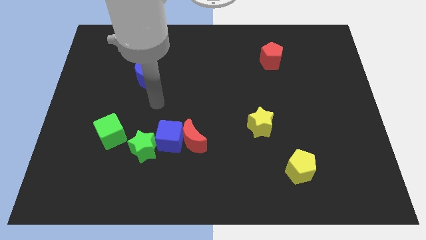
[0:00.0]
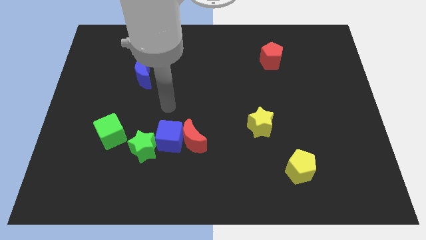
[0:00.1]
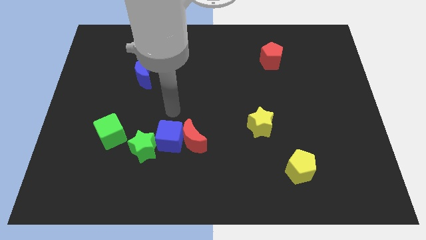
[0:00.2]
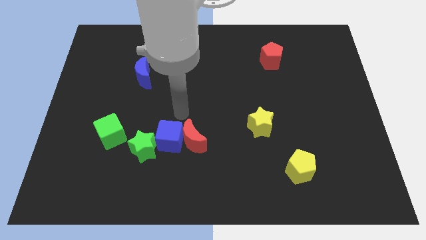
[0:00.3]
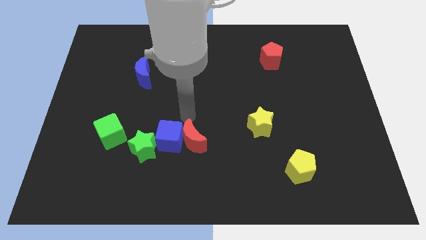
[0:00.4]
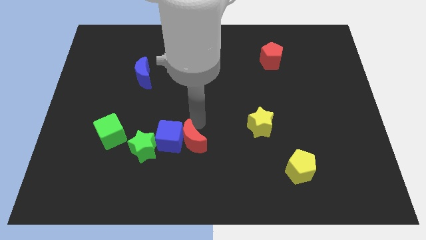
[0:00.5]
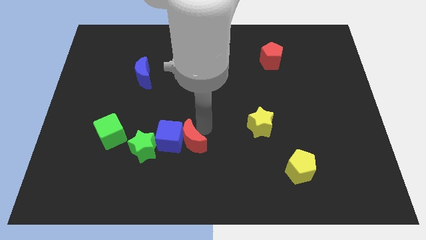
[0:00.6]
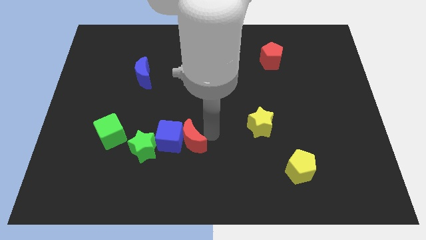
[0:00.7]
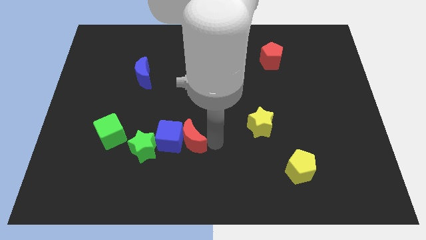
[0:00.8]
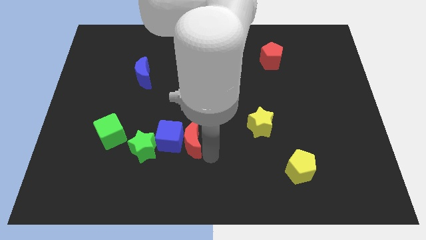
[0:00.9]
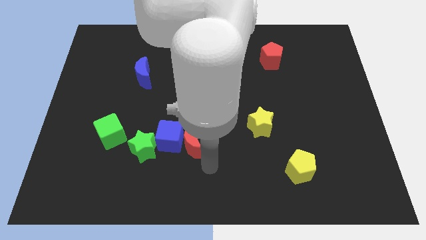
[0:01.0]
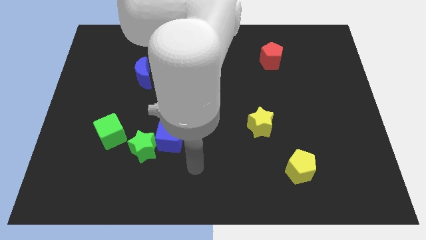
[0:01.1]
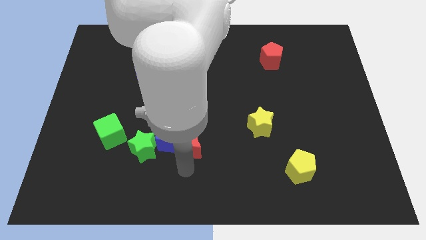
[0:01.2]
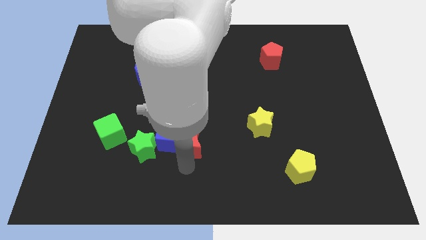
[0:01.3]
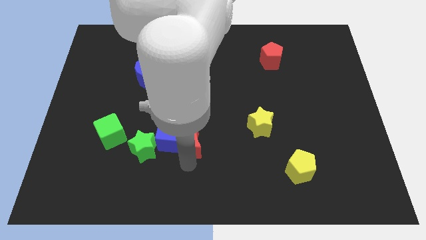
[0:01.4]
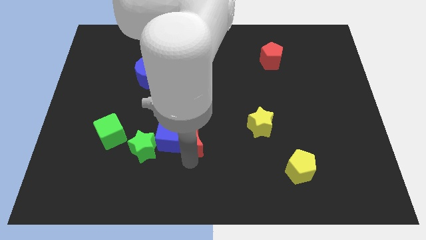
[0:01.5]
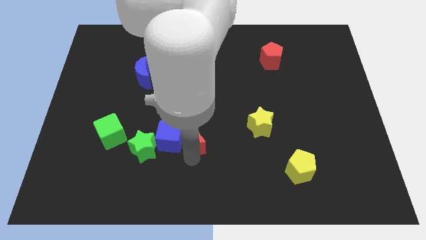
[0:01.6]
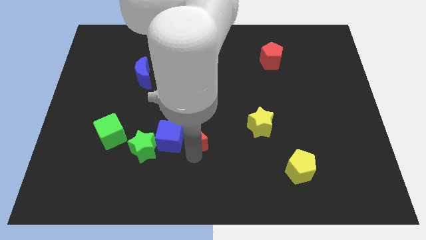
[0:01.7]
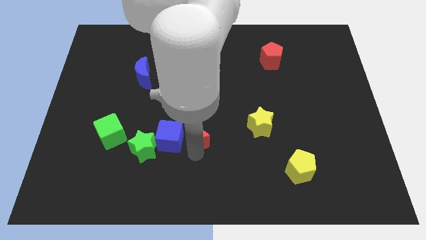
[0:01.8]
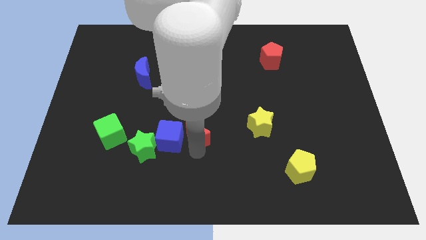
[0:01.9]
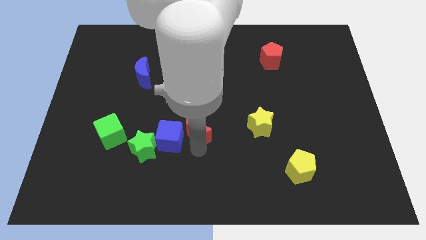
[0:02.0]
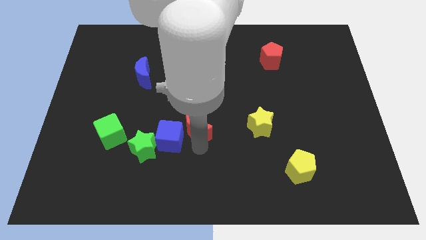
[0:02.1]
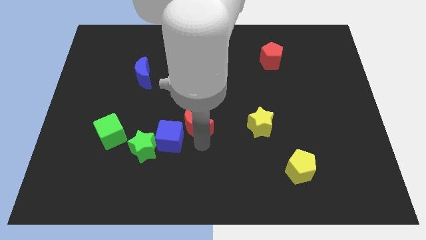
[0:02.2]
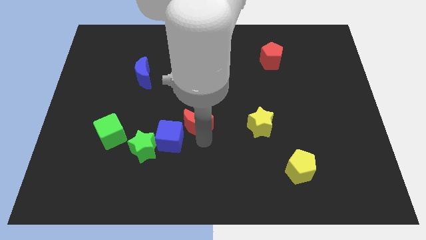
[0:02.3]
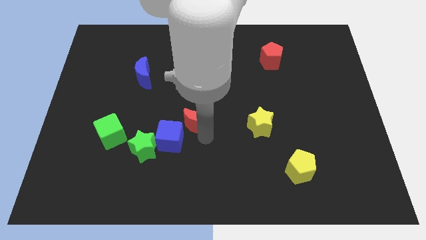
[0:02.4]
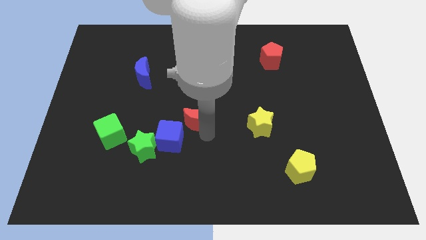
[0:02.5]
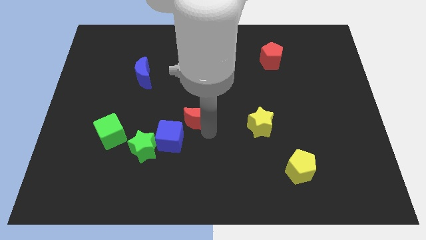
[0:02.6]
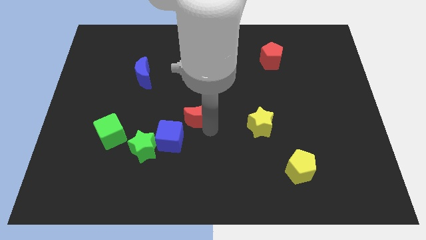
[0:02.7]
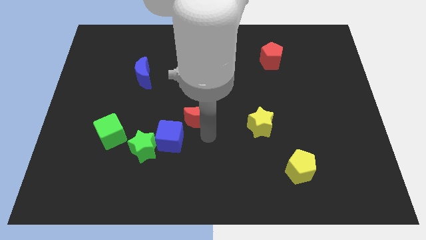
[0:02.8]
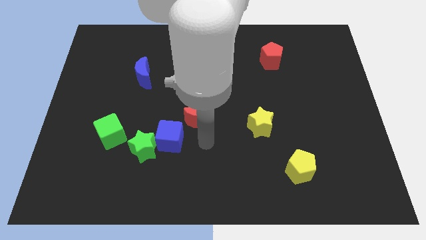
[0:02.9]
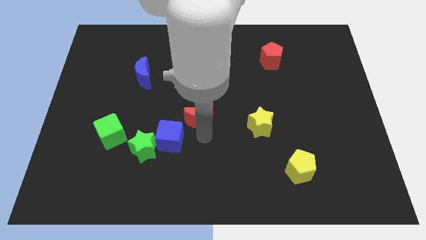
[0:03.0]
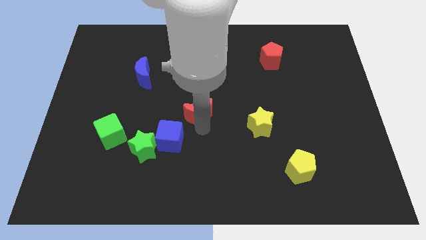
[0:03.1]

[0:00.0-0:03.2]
move the red moon up a little

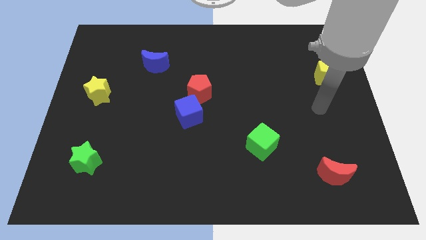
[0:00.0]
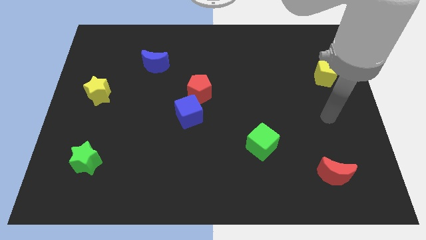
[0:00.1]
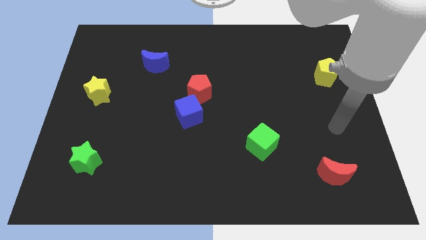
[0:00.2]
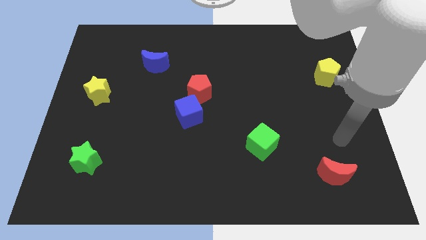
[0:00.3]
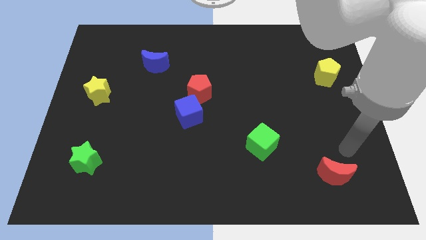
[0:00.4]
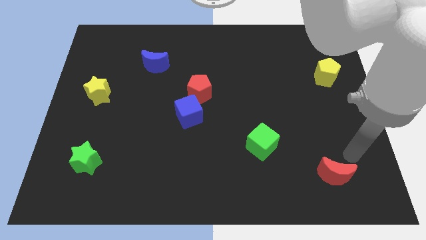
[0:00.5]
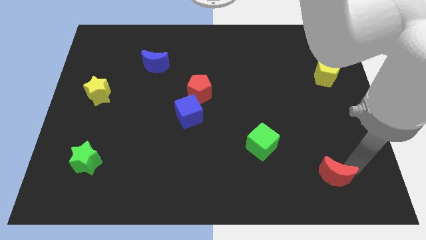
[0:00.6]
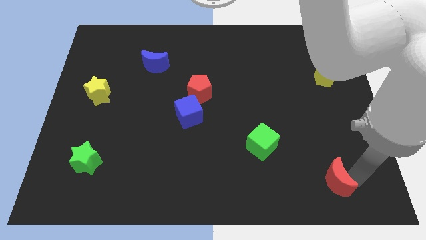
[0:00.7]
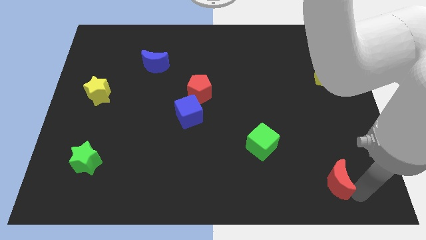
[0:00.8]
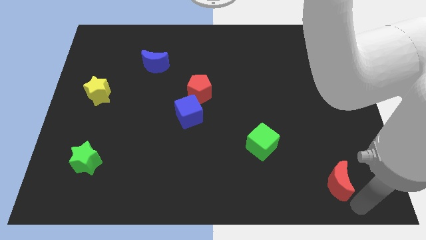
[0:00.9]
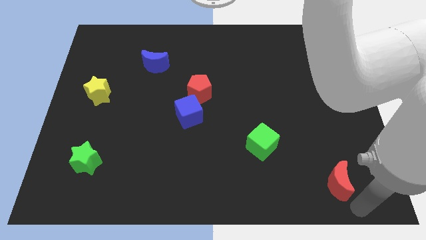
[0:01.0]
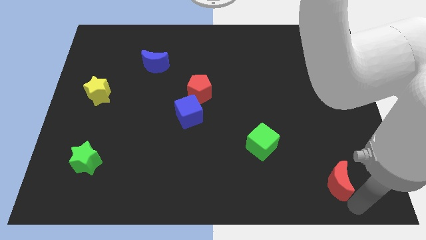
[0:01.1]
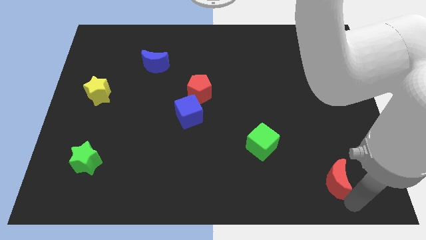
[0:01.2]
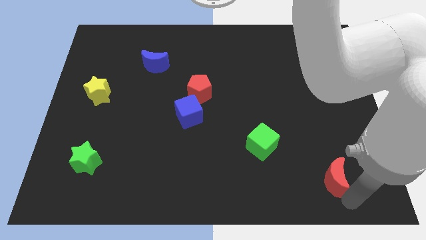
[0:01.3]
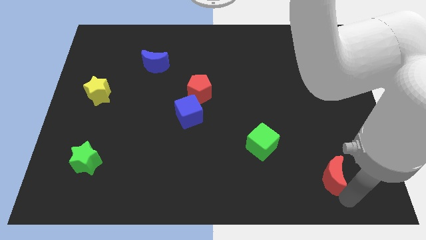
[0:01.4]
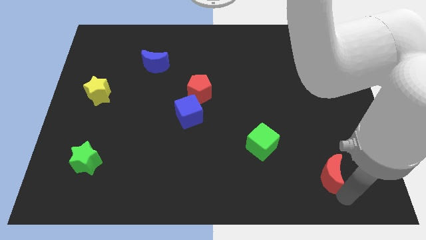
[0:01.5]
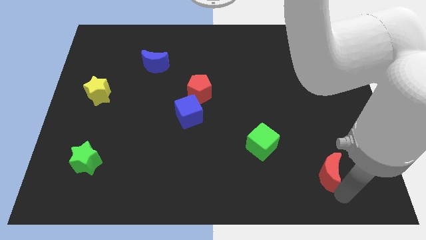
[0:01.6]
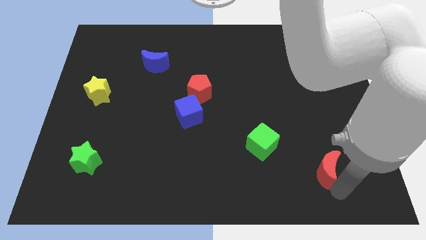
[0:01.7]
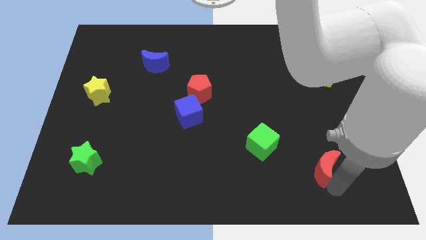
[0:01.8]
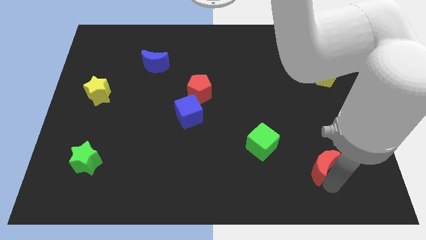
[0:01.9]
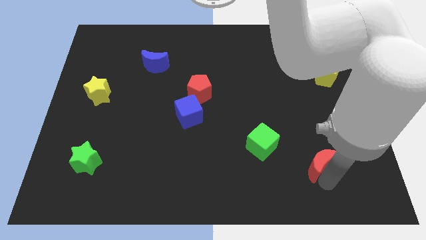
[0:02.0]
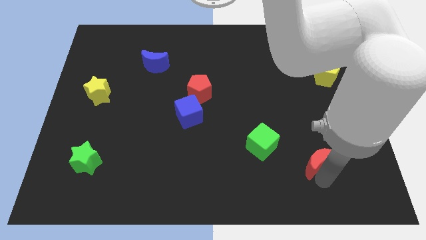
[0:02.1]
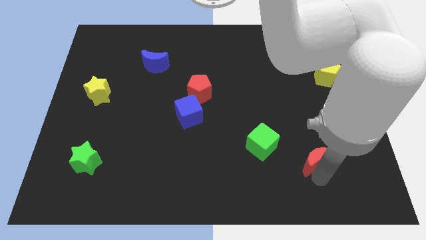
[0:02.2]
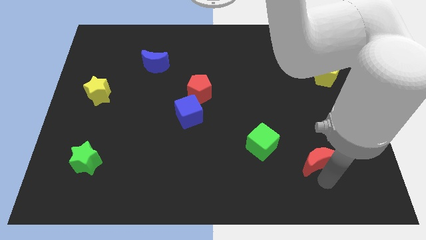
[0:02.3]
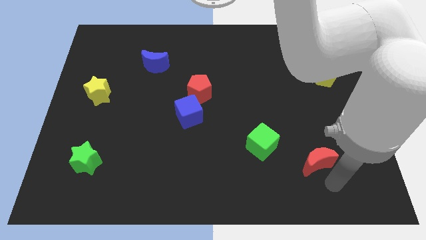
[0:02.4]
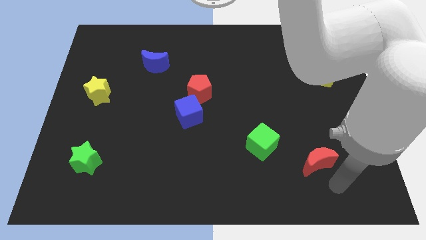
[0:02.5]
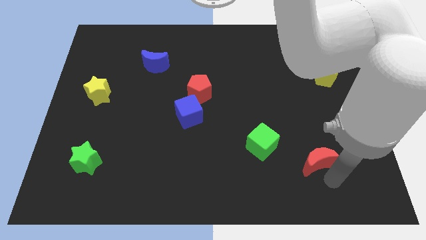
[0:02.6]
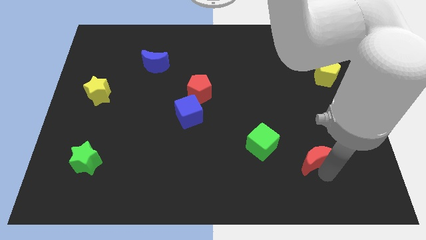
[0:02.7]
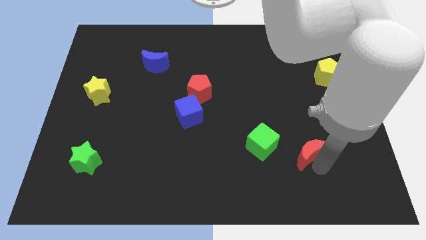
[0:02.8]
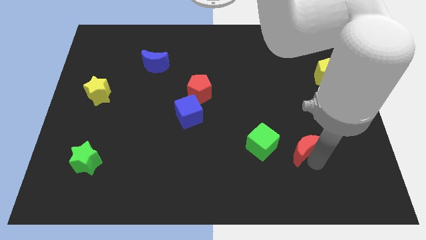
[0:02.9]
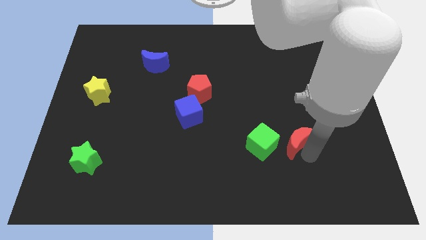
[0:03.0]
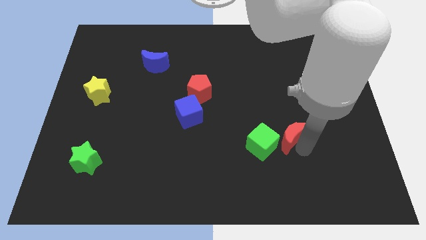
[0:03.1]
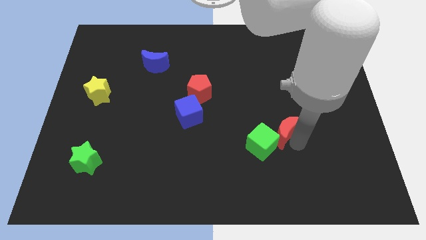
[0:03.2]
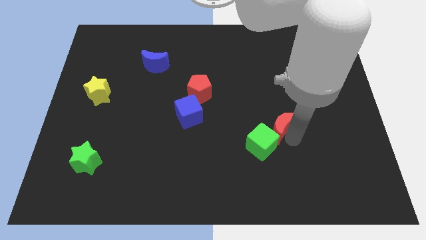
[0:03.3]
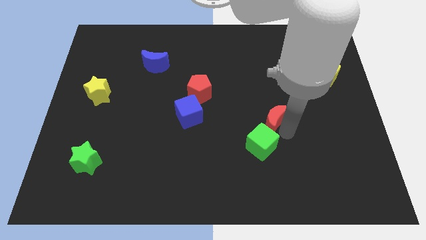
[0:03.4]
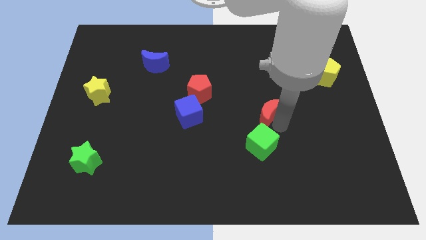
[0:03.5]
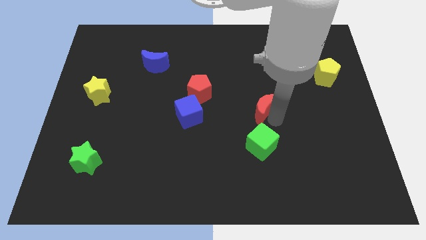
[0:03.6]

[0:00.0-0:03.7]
slide the red moon diagonally upwards and to the left

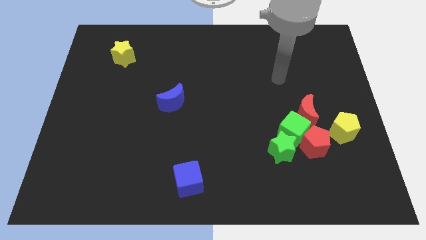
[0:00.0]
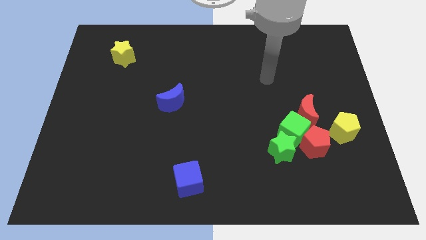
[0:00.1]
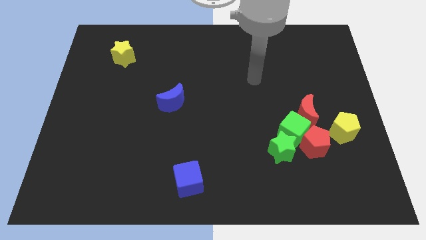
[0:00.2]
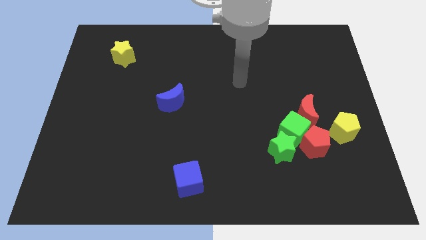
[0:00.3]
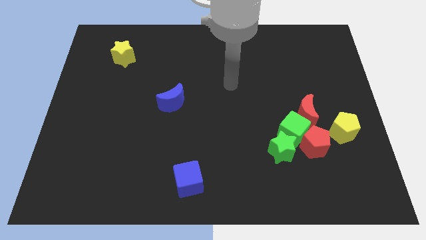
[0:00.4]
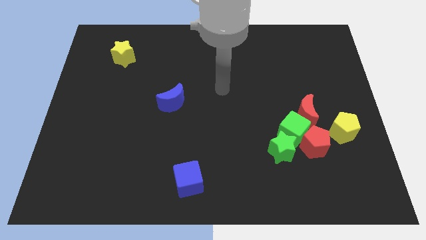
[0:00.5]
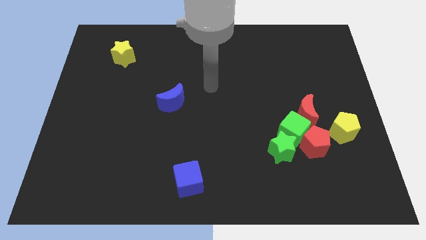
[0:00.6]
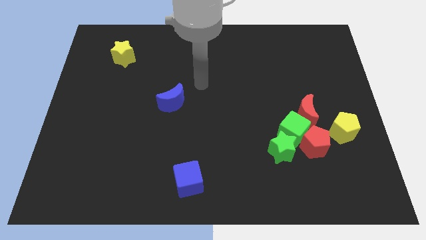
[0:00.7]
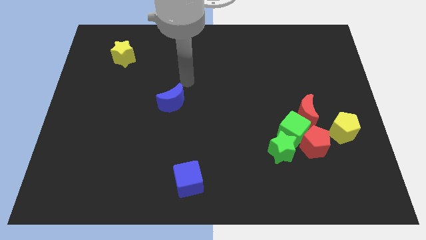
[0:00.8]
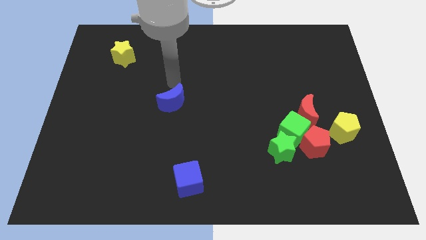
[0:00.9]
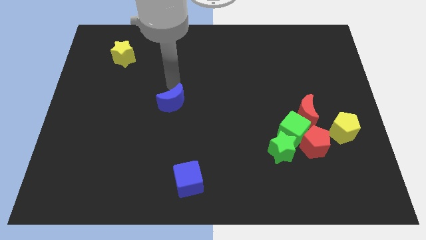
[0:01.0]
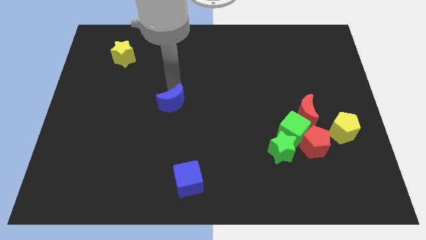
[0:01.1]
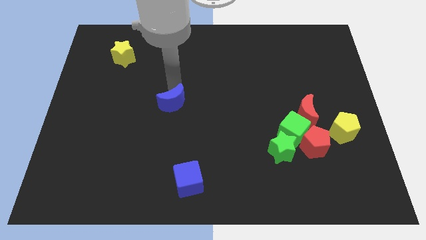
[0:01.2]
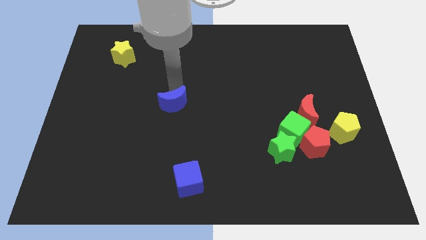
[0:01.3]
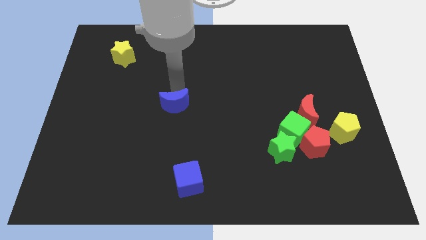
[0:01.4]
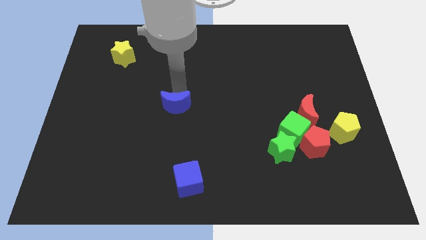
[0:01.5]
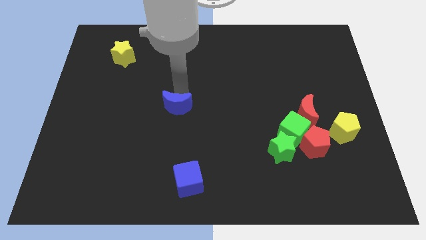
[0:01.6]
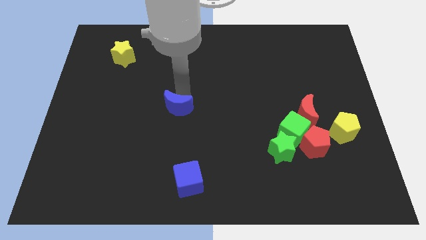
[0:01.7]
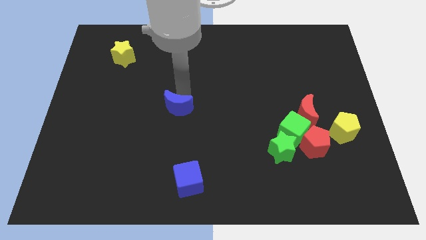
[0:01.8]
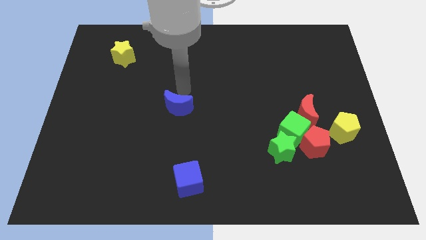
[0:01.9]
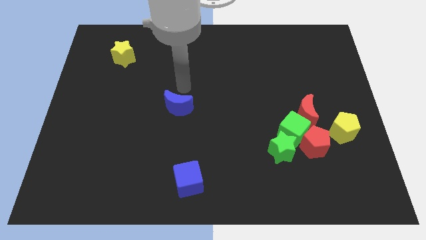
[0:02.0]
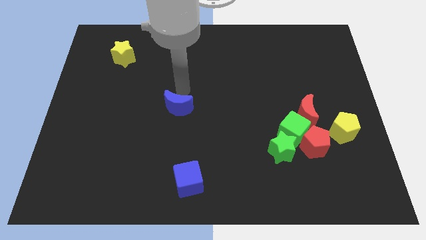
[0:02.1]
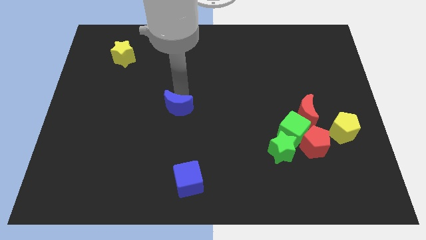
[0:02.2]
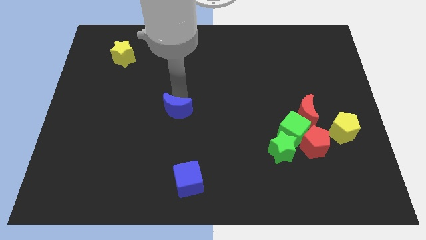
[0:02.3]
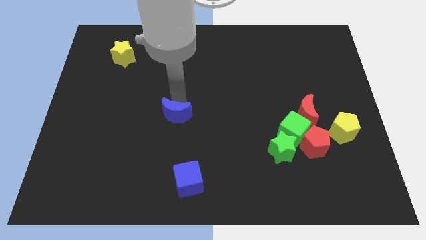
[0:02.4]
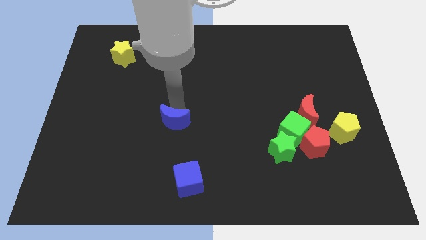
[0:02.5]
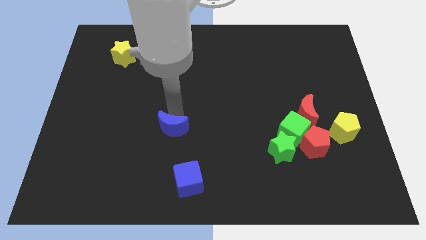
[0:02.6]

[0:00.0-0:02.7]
slightly push the blue moon down
